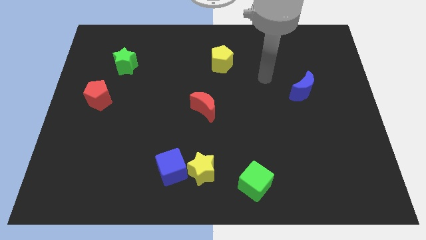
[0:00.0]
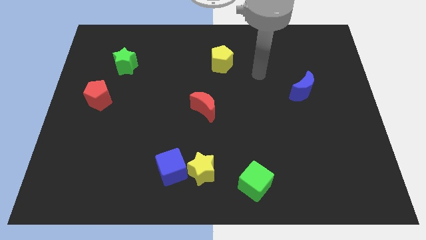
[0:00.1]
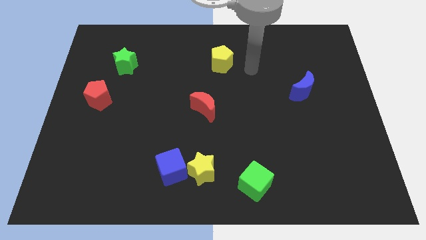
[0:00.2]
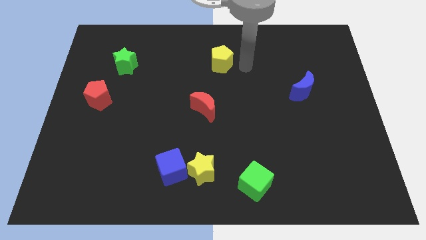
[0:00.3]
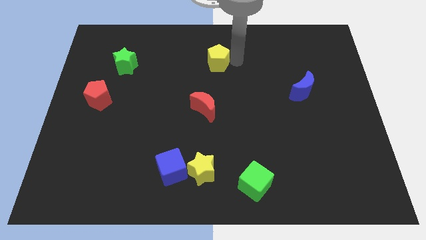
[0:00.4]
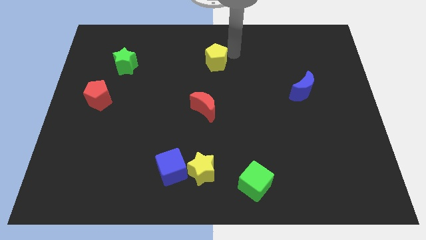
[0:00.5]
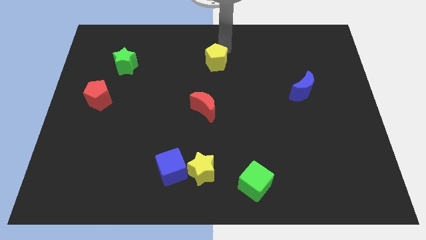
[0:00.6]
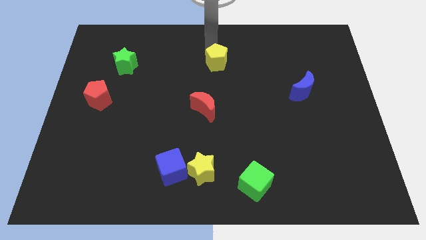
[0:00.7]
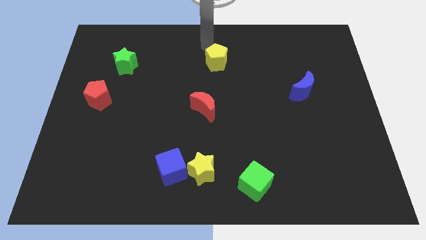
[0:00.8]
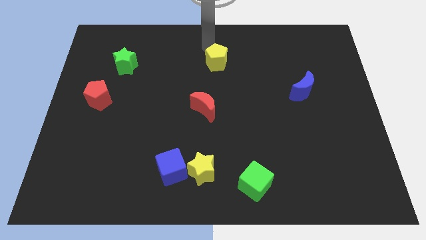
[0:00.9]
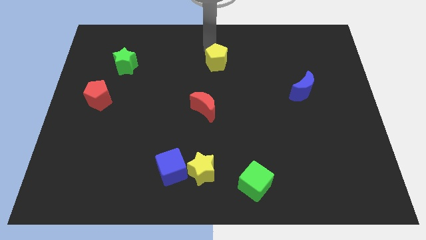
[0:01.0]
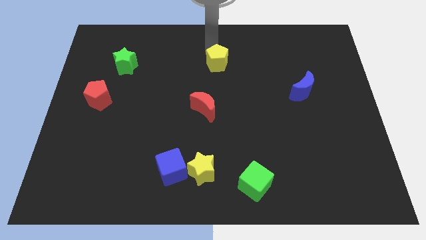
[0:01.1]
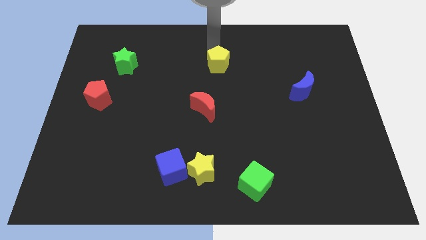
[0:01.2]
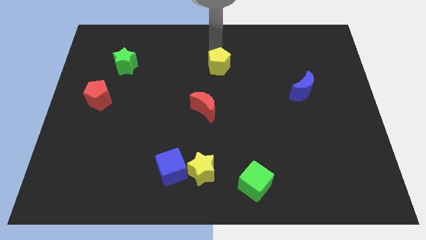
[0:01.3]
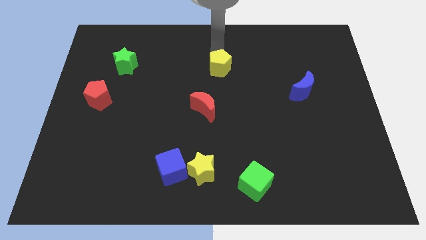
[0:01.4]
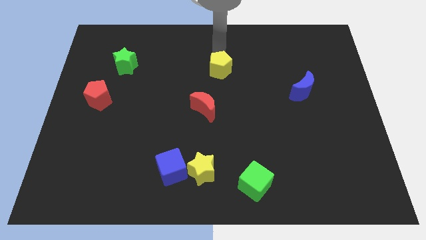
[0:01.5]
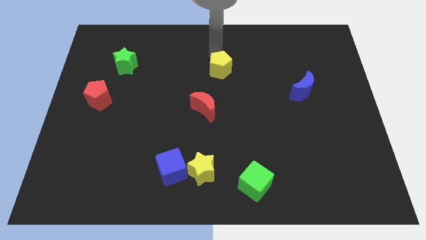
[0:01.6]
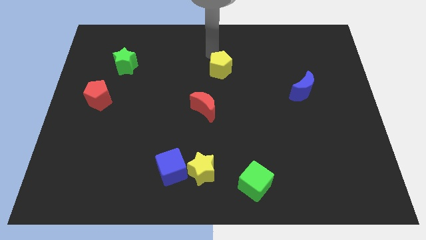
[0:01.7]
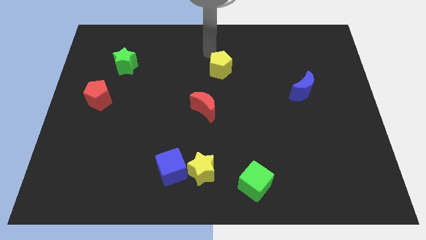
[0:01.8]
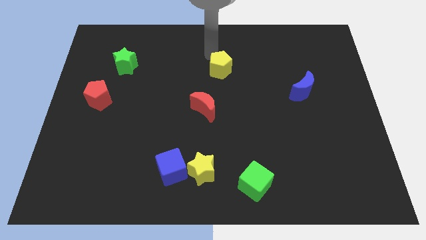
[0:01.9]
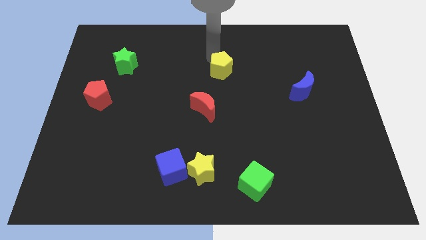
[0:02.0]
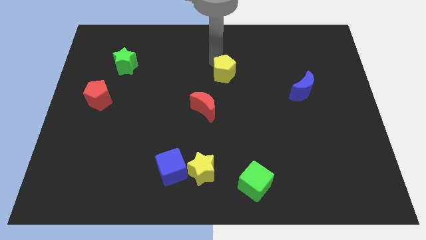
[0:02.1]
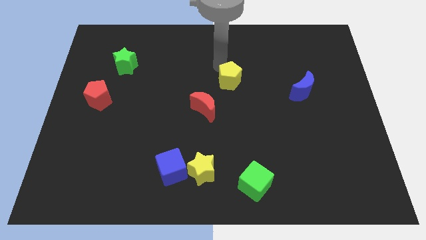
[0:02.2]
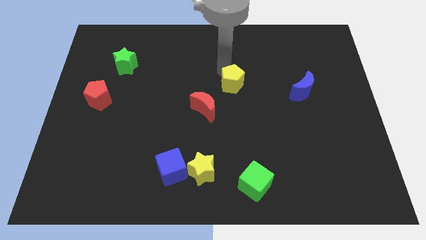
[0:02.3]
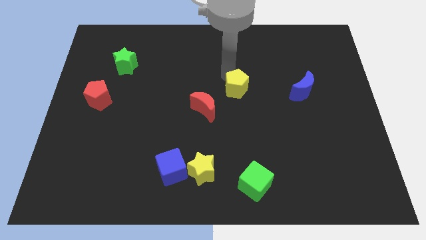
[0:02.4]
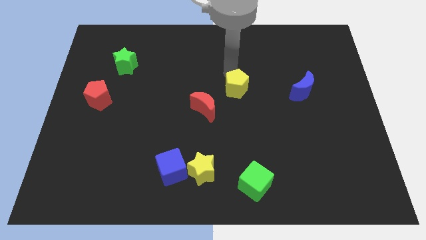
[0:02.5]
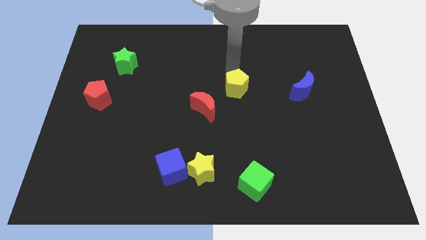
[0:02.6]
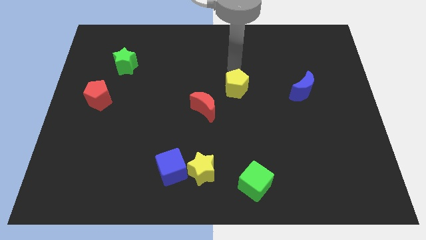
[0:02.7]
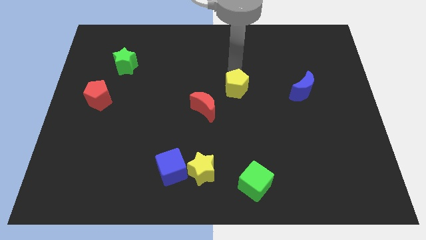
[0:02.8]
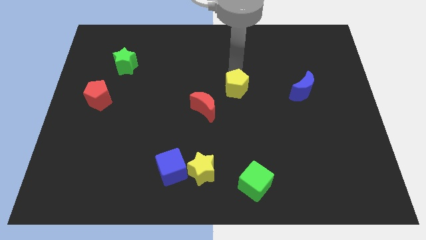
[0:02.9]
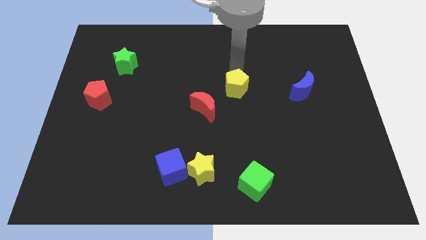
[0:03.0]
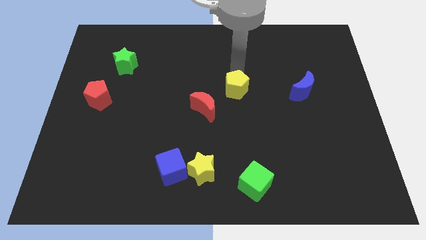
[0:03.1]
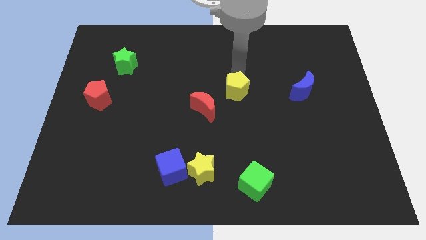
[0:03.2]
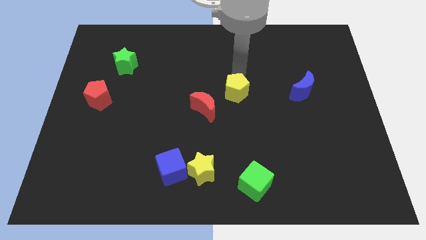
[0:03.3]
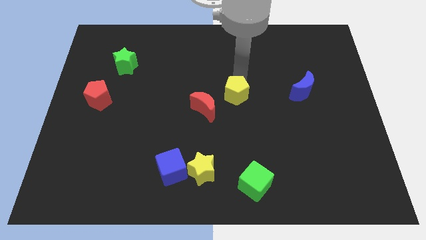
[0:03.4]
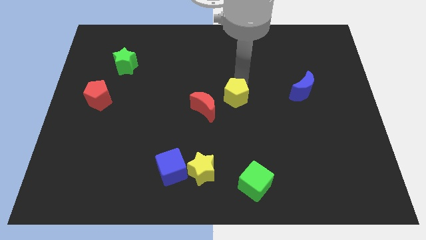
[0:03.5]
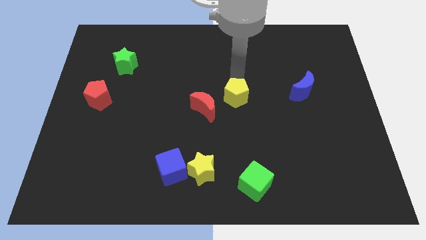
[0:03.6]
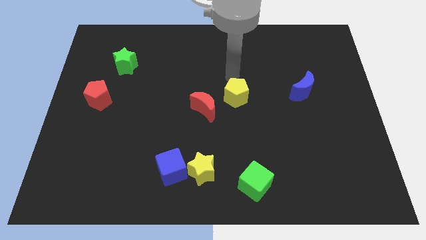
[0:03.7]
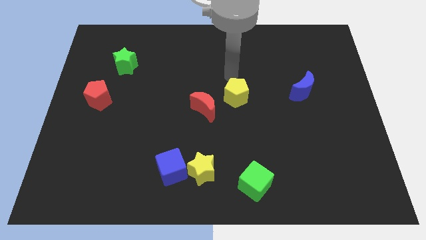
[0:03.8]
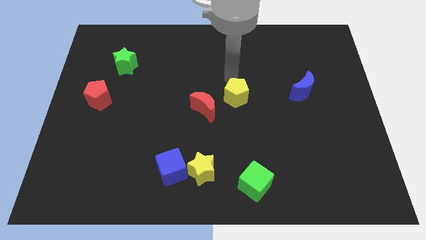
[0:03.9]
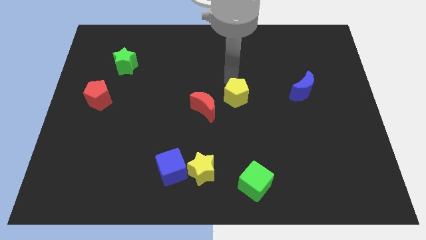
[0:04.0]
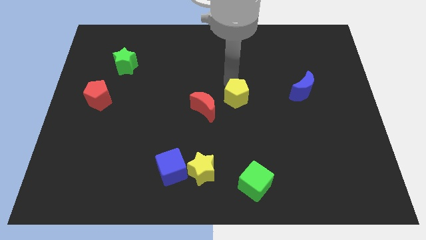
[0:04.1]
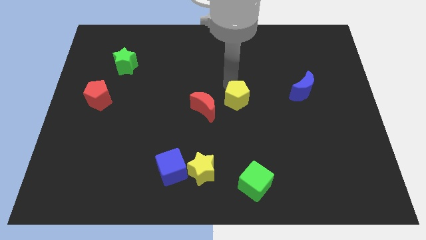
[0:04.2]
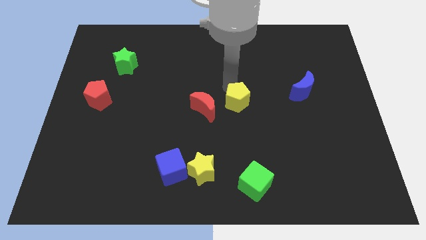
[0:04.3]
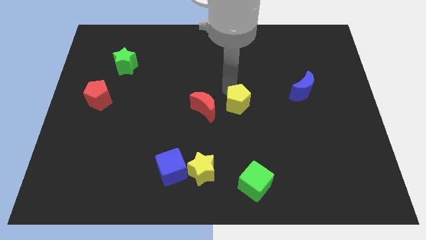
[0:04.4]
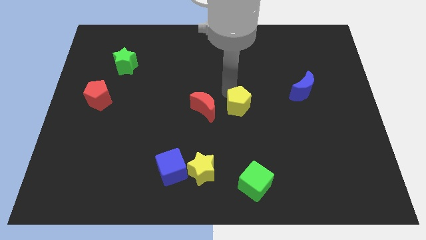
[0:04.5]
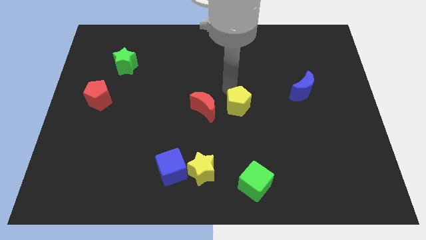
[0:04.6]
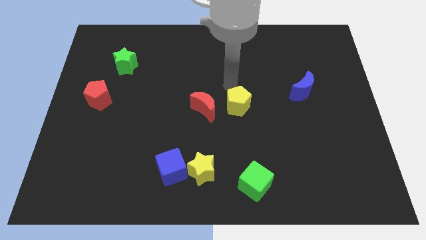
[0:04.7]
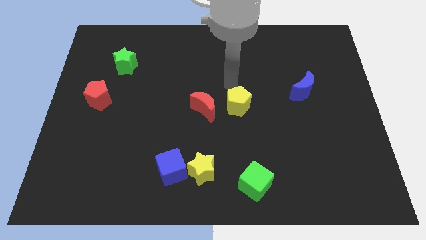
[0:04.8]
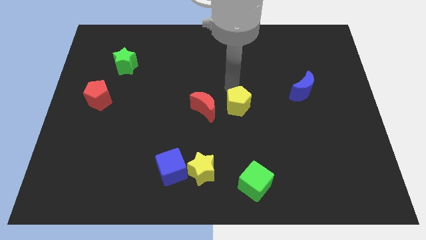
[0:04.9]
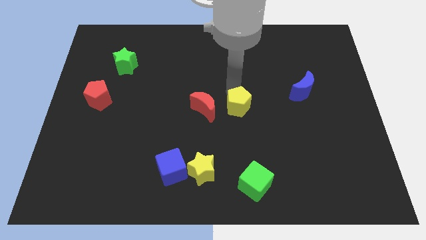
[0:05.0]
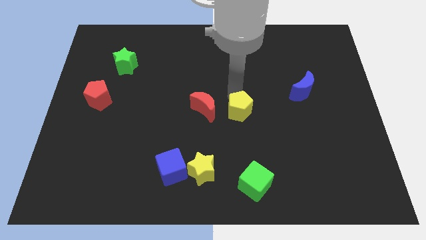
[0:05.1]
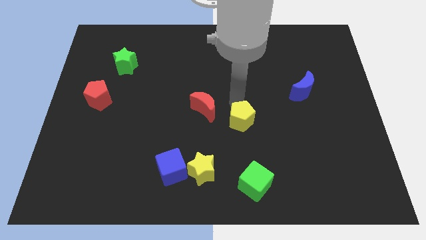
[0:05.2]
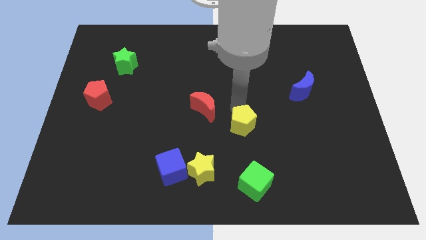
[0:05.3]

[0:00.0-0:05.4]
slide the yellow pentagon above the green cube

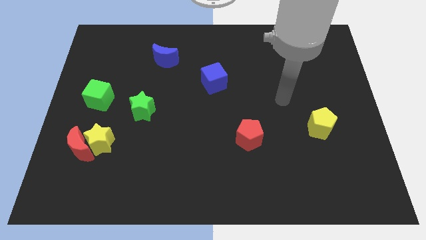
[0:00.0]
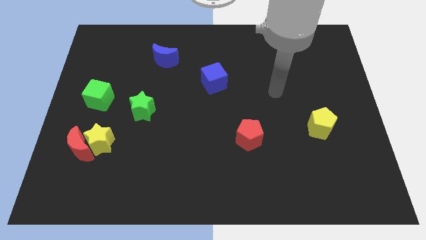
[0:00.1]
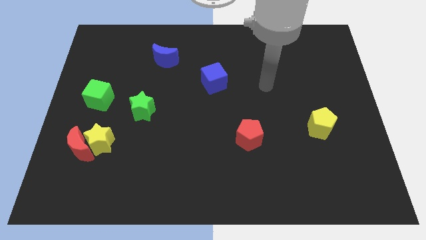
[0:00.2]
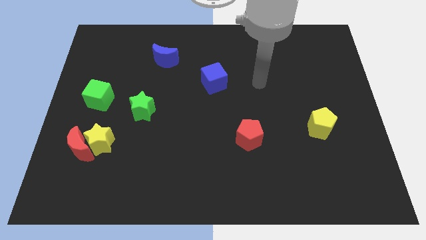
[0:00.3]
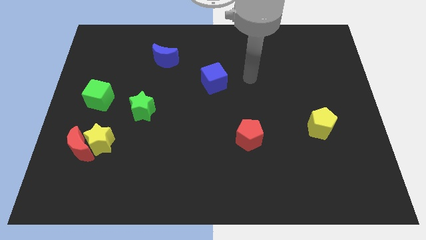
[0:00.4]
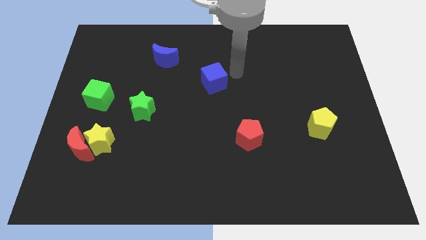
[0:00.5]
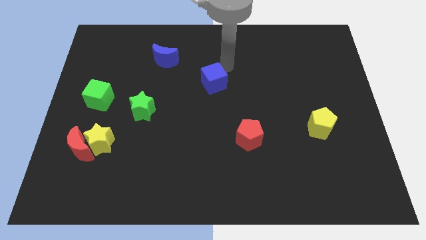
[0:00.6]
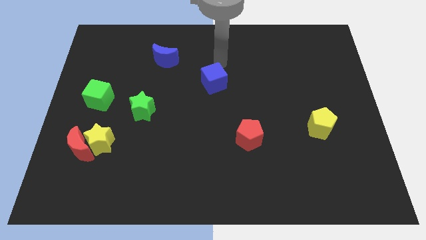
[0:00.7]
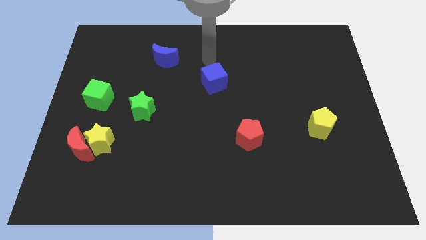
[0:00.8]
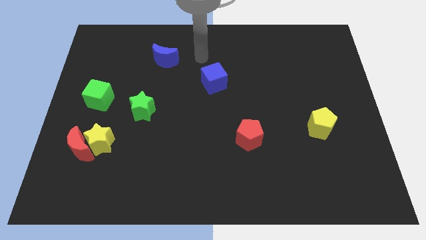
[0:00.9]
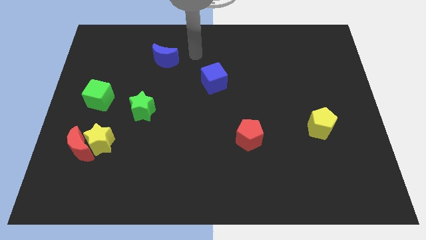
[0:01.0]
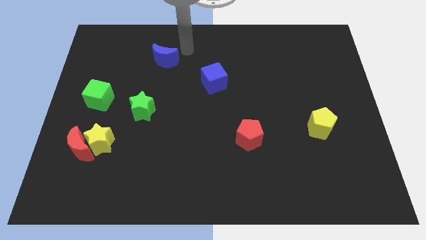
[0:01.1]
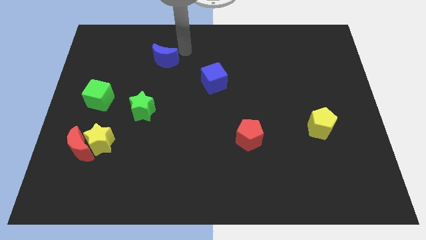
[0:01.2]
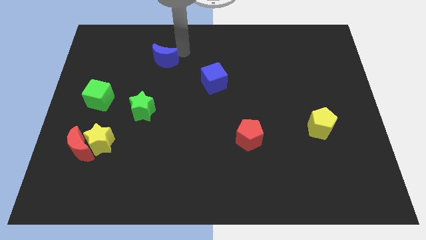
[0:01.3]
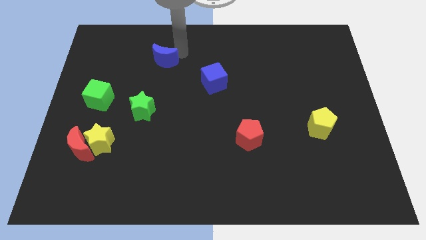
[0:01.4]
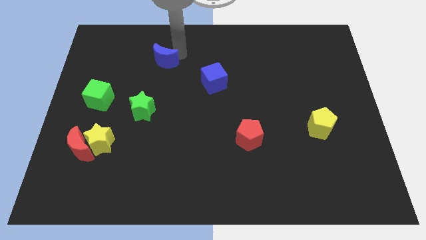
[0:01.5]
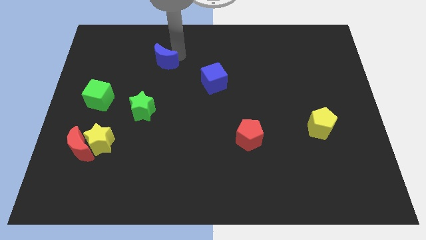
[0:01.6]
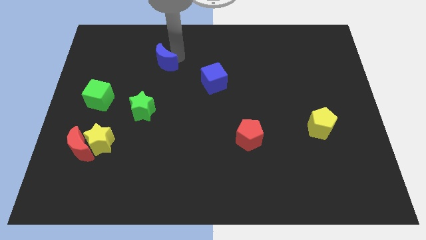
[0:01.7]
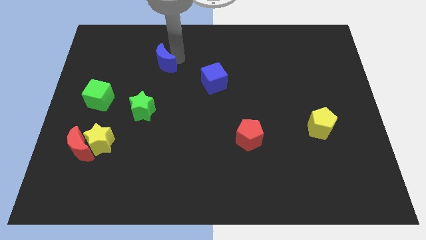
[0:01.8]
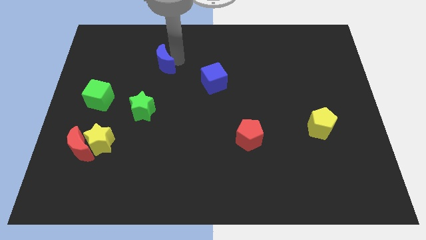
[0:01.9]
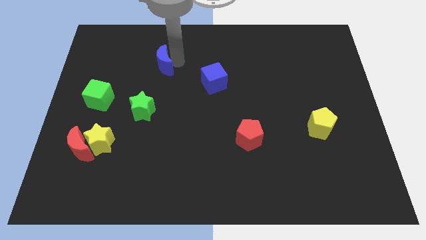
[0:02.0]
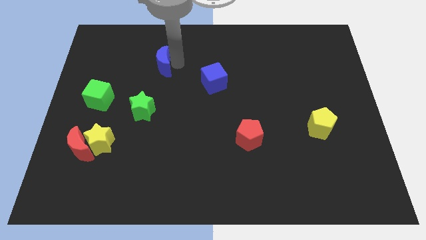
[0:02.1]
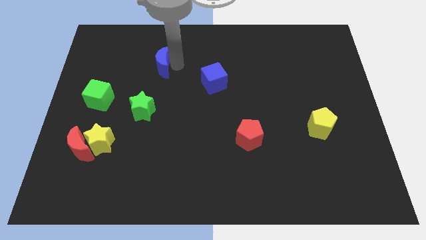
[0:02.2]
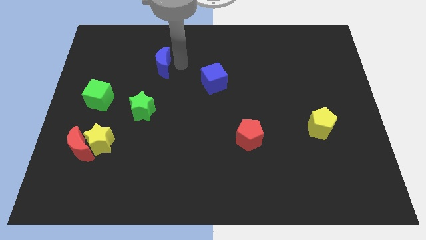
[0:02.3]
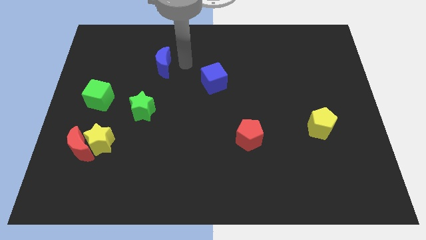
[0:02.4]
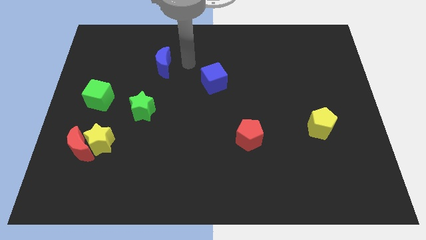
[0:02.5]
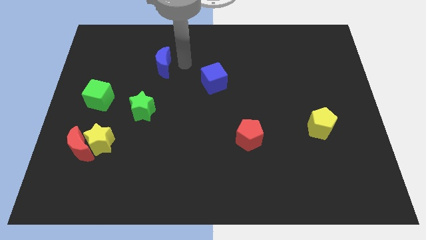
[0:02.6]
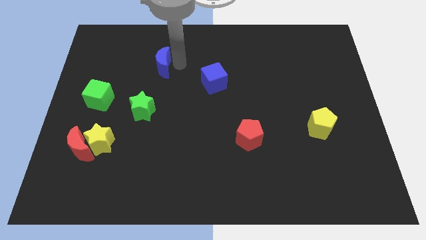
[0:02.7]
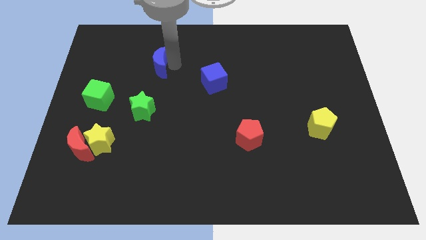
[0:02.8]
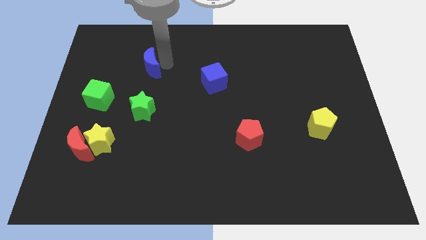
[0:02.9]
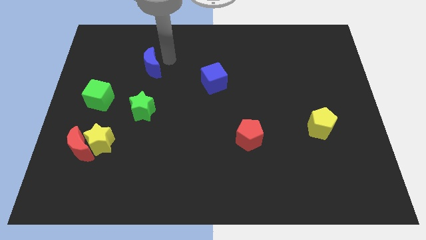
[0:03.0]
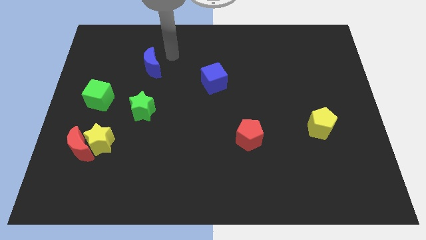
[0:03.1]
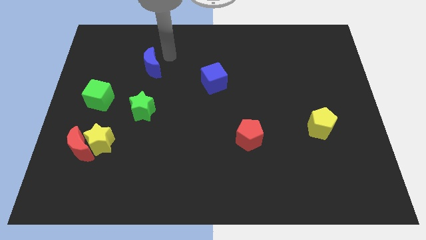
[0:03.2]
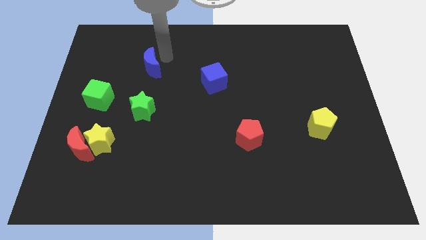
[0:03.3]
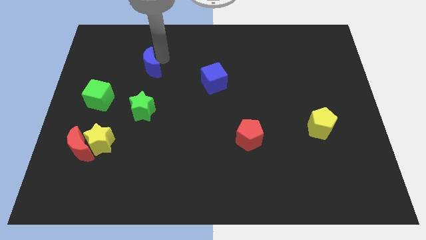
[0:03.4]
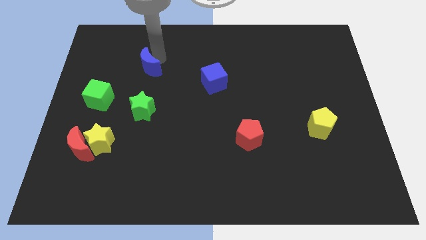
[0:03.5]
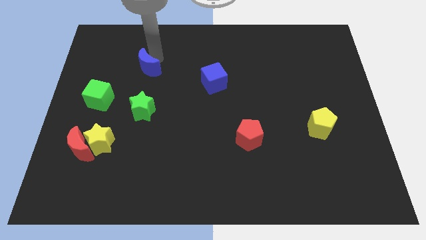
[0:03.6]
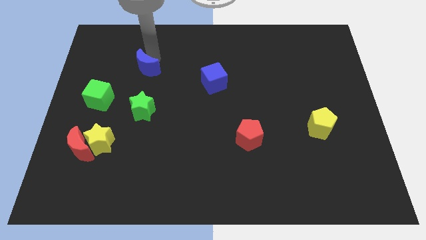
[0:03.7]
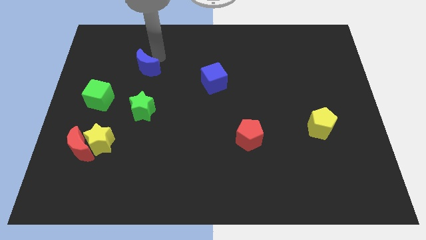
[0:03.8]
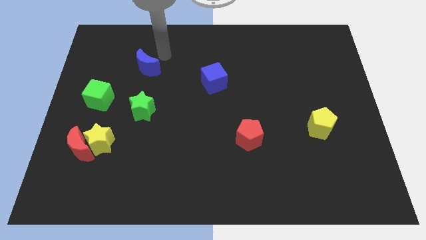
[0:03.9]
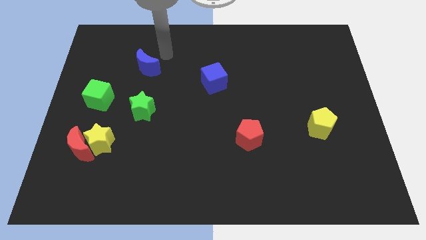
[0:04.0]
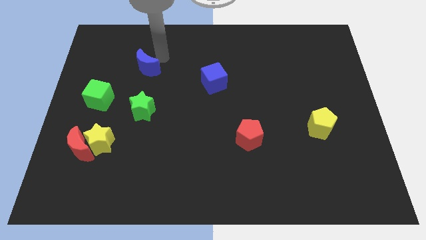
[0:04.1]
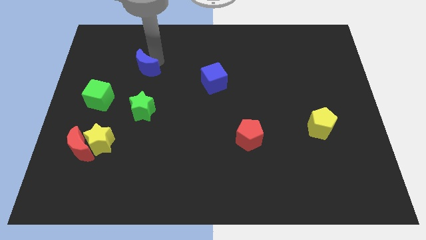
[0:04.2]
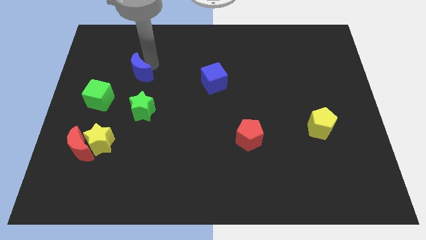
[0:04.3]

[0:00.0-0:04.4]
move the blue moon diagonally up and to the right of the green cube
